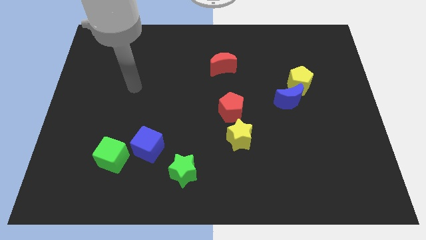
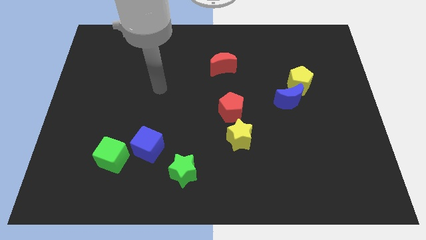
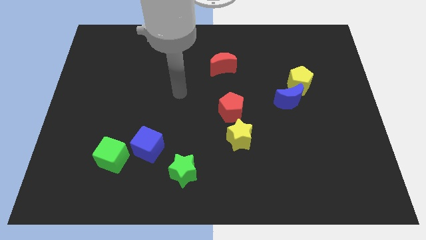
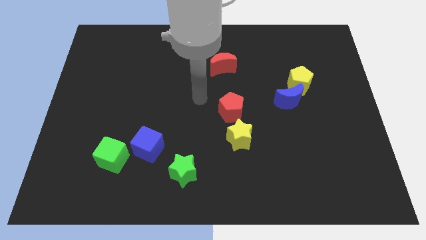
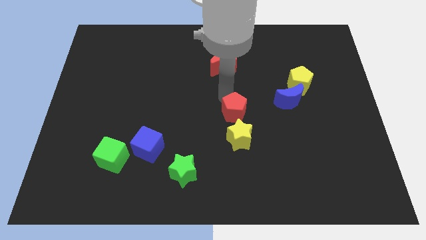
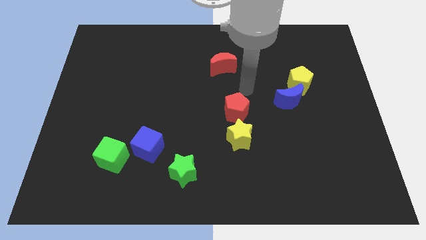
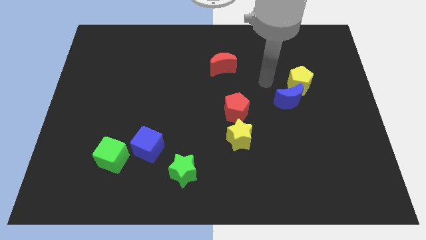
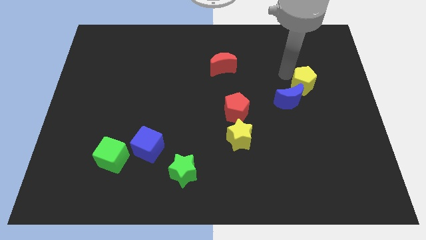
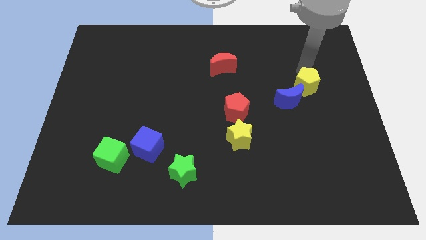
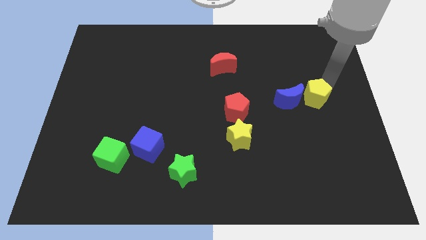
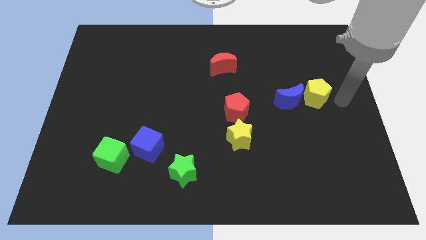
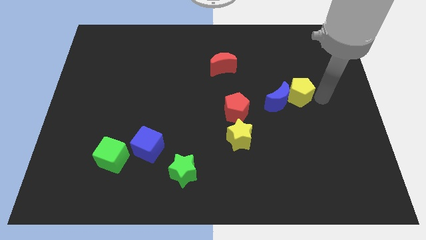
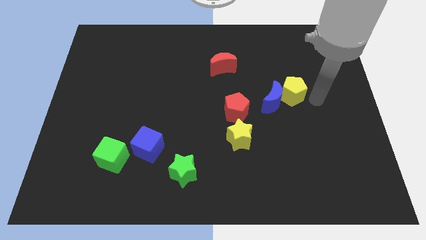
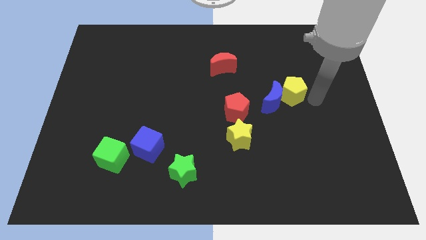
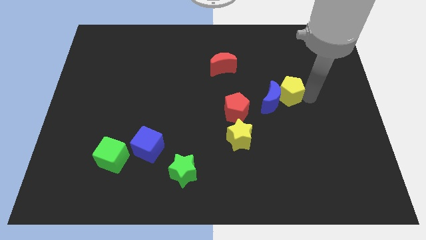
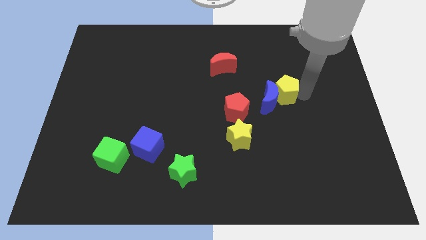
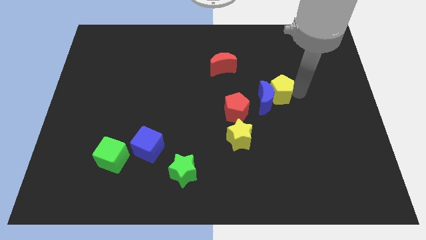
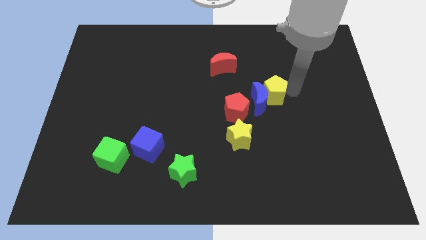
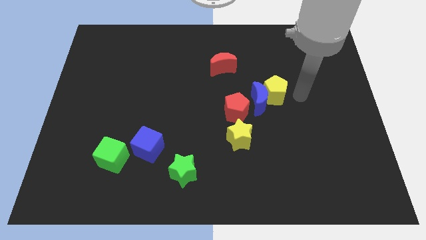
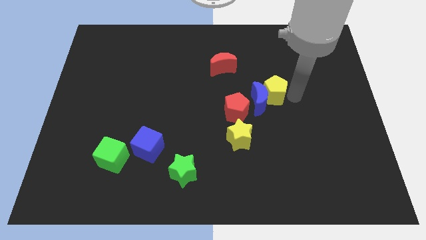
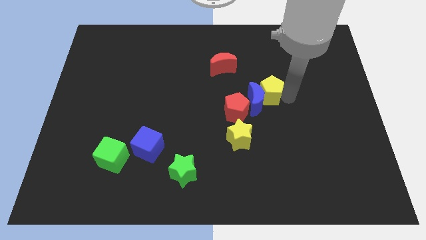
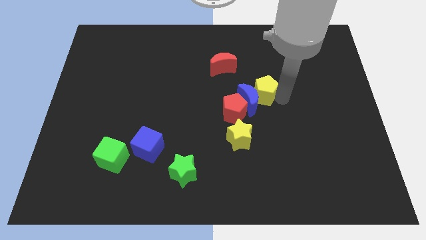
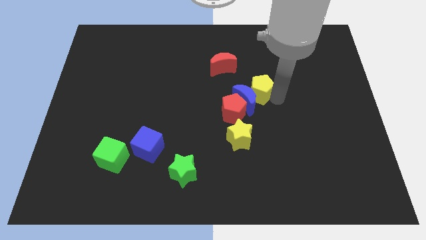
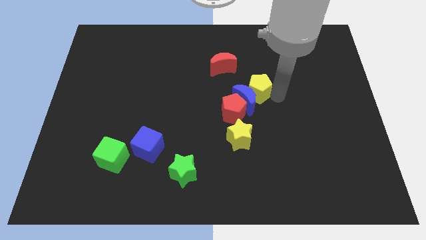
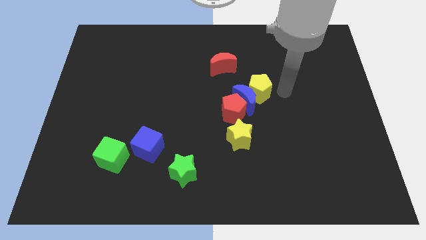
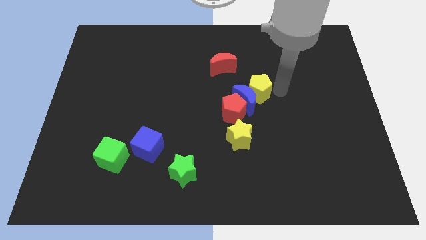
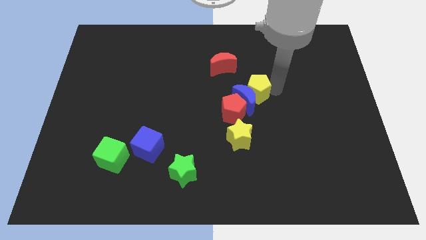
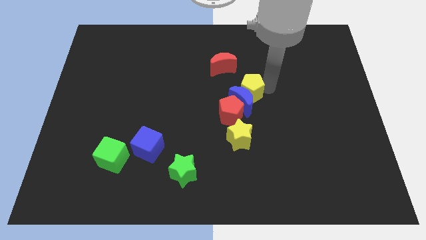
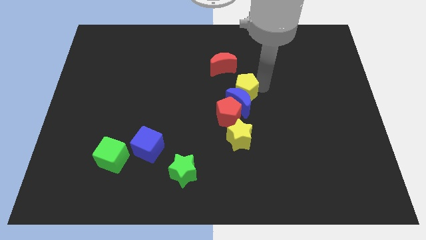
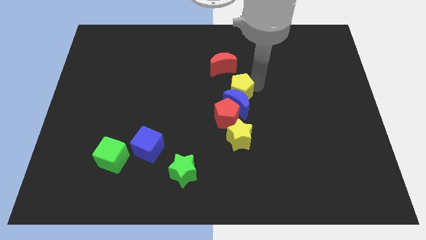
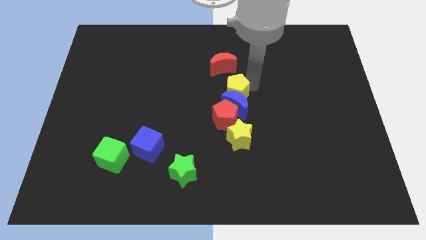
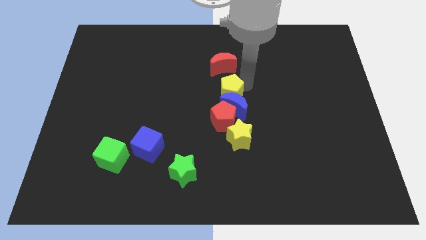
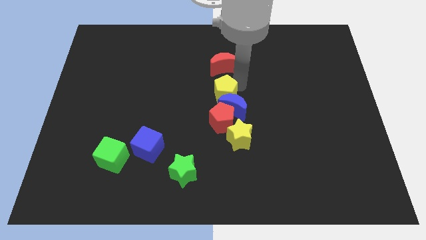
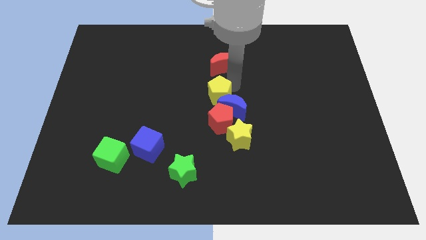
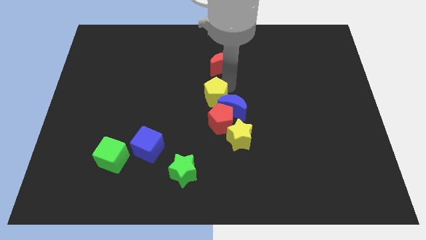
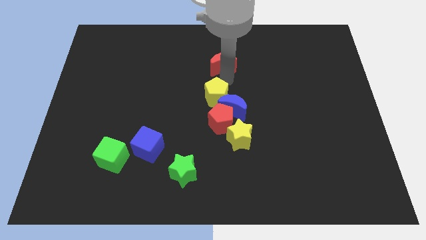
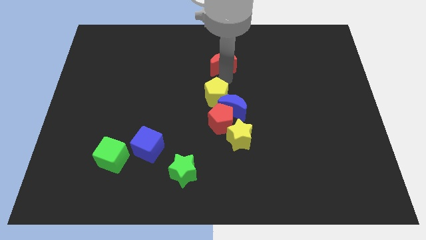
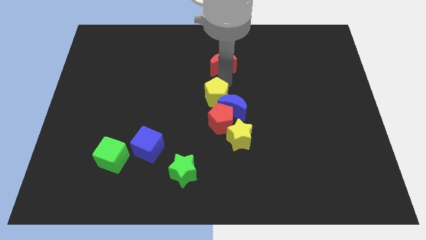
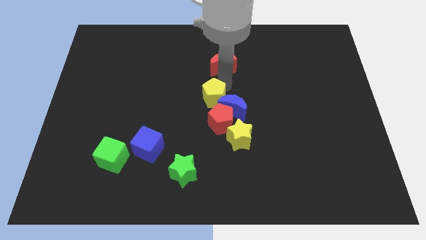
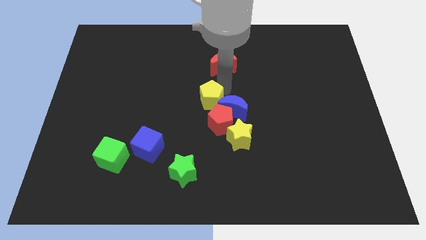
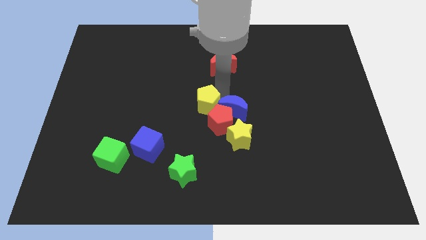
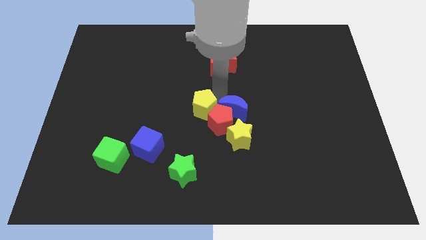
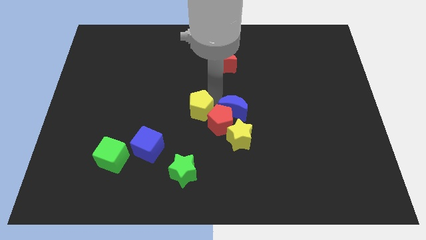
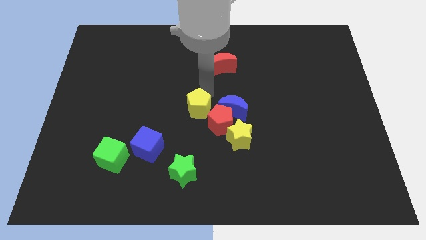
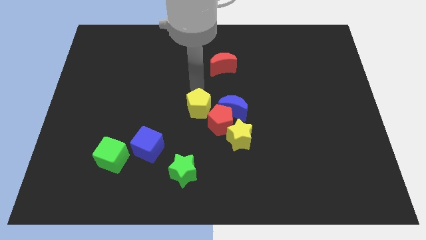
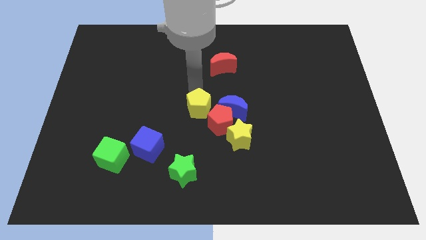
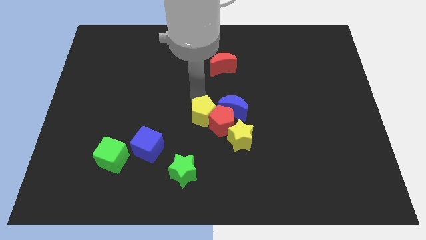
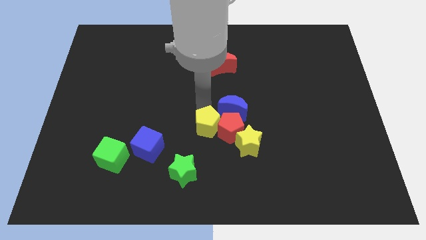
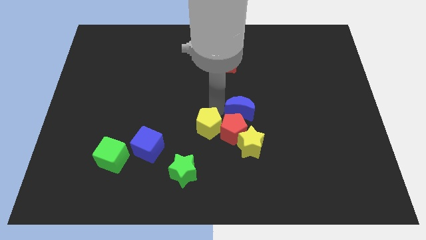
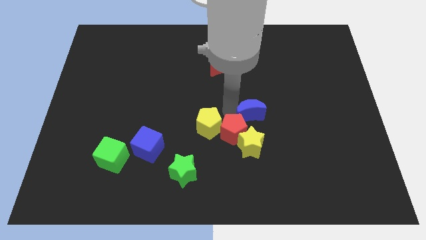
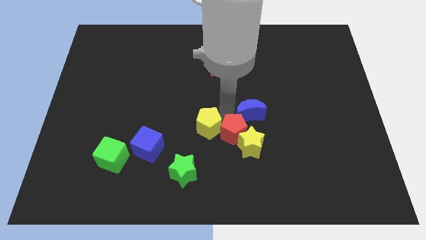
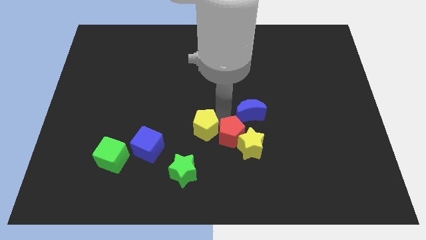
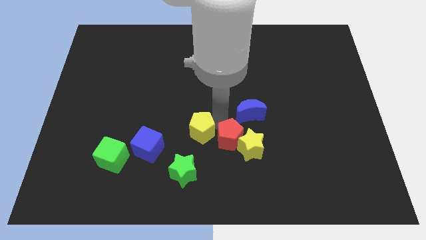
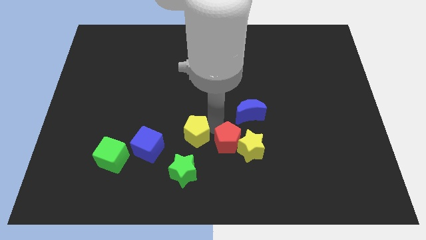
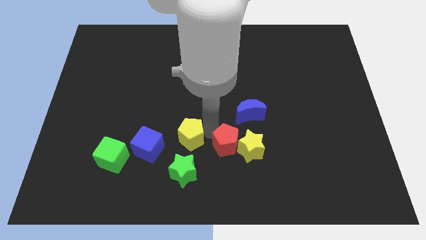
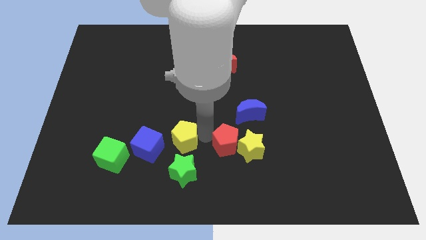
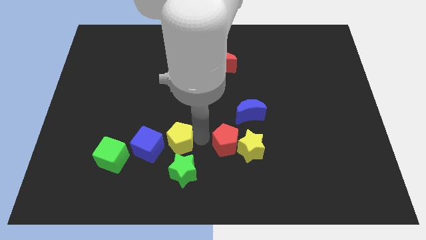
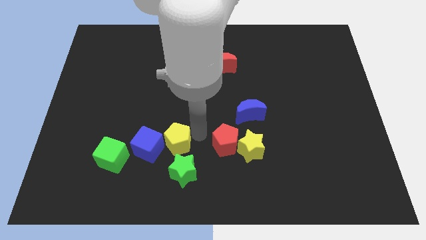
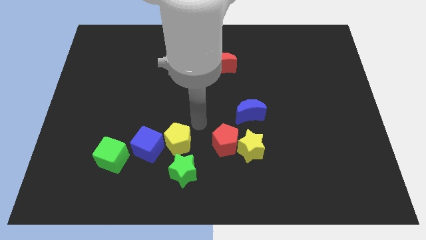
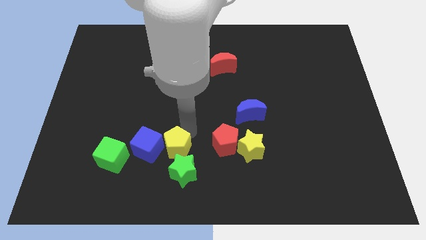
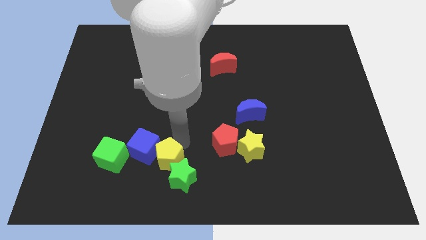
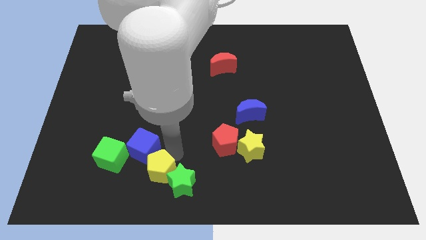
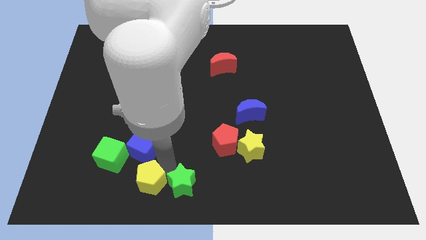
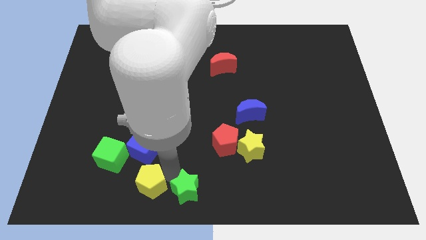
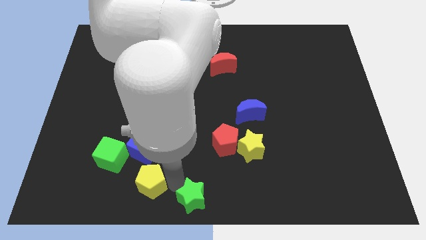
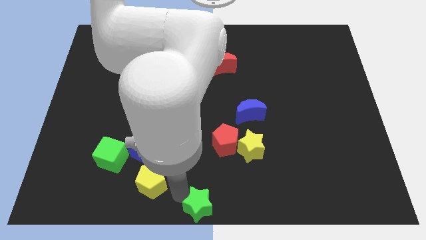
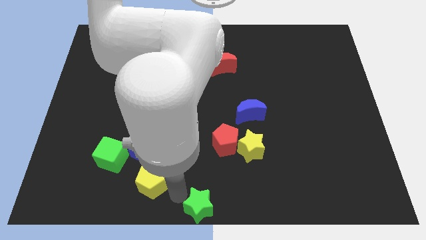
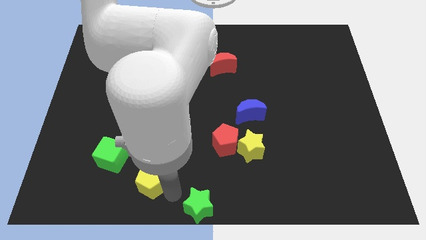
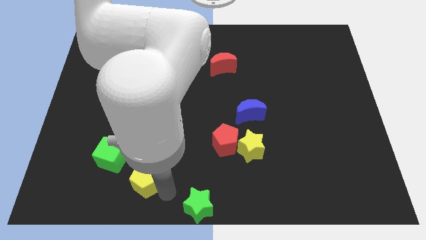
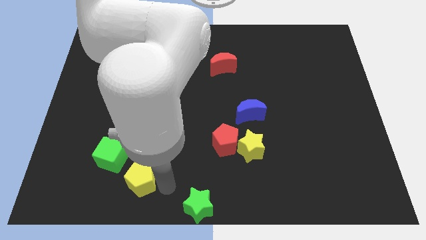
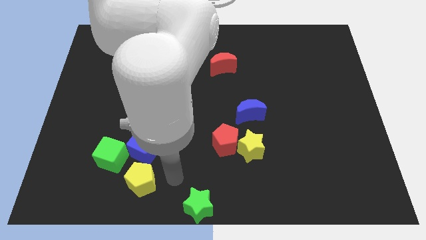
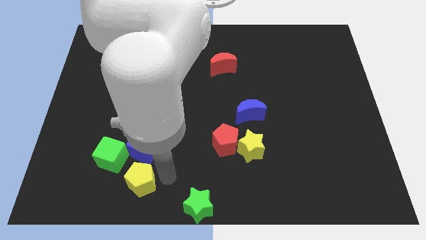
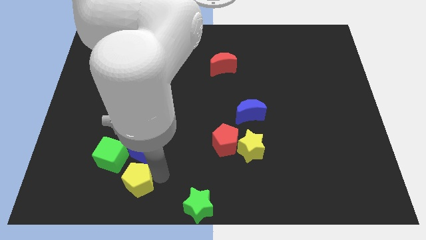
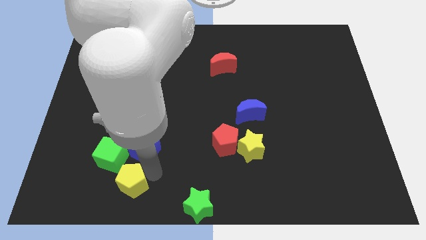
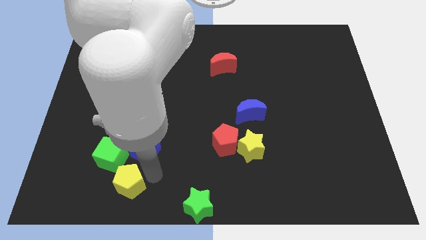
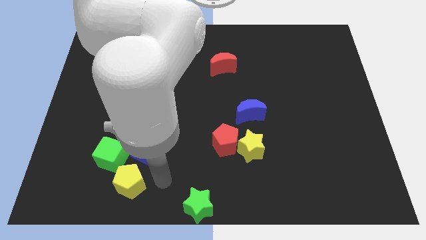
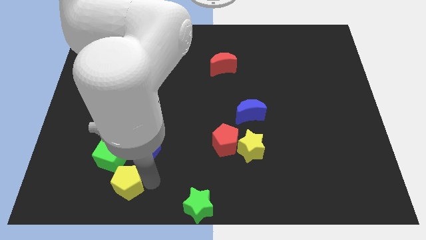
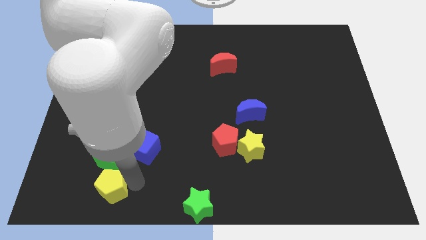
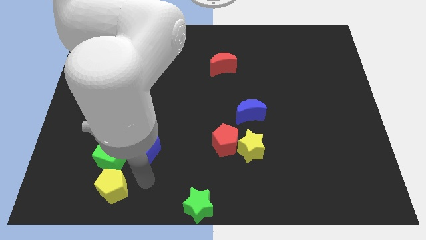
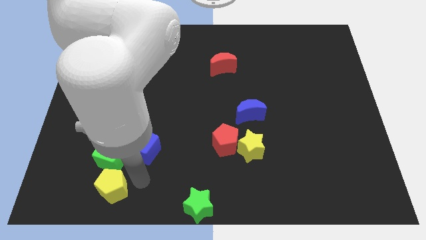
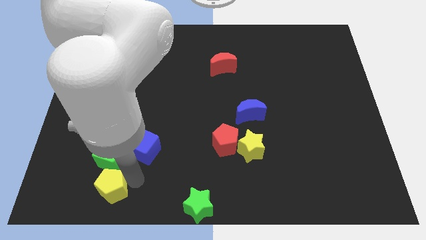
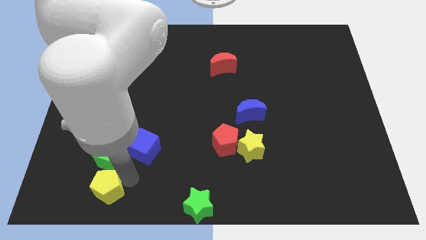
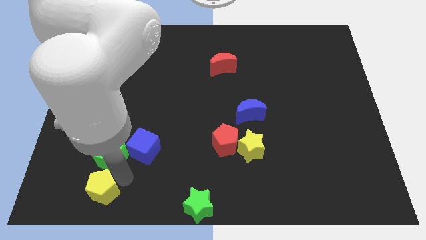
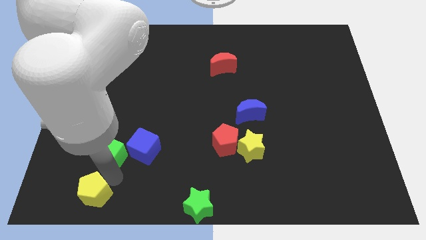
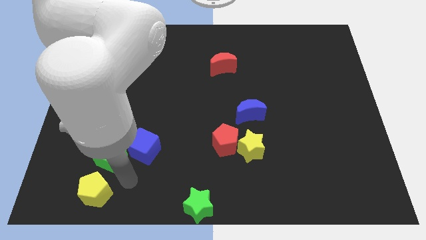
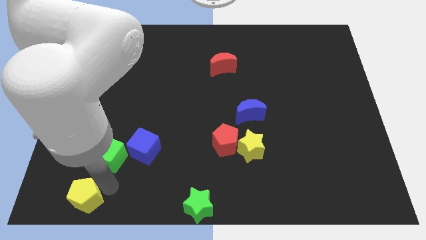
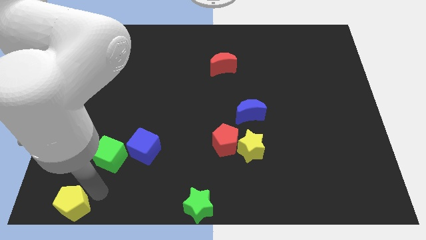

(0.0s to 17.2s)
put the yellow pentagon to the lower left corner
